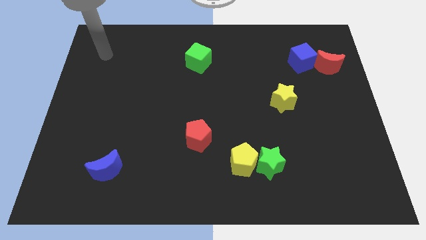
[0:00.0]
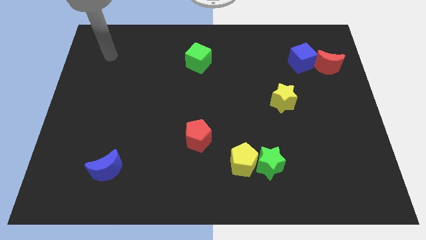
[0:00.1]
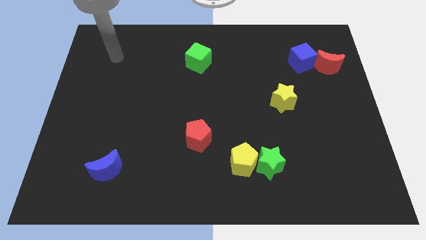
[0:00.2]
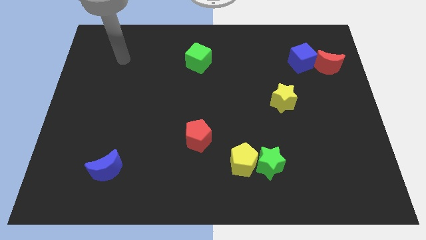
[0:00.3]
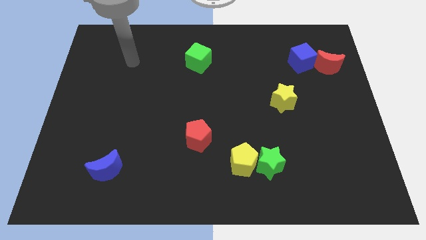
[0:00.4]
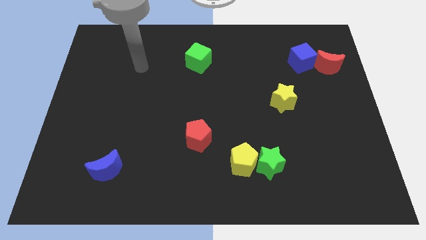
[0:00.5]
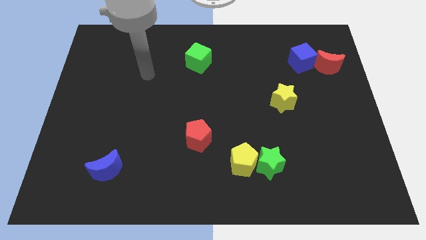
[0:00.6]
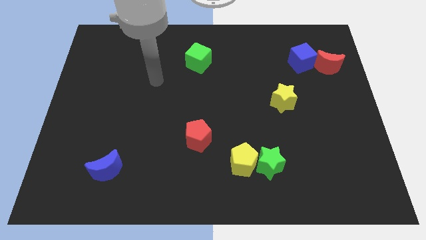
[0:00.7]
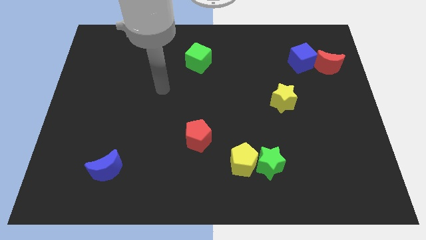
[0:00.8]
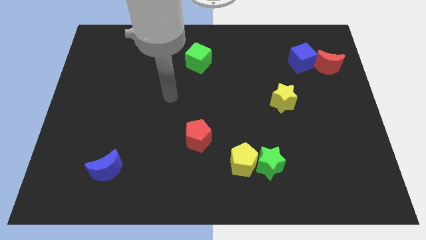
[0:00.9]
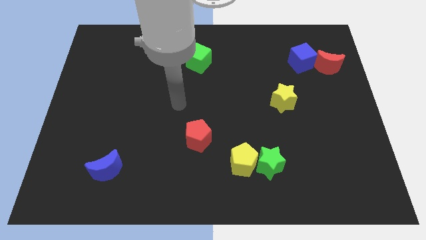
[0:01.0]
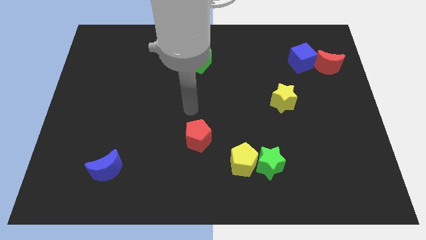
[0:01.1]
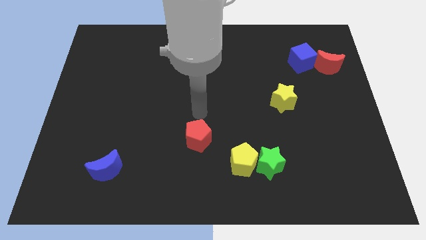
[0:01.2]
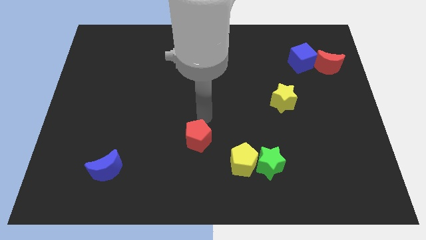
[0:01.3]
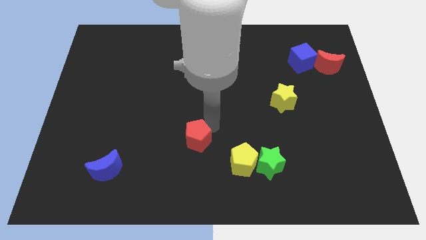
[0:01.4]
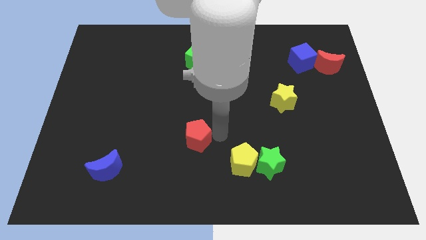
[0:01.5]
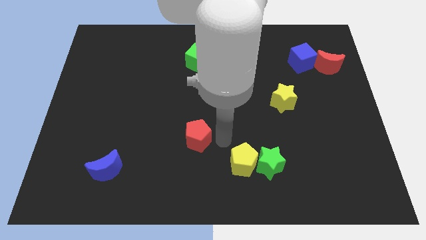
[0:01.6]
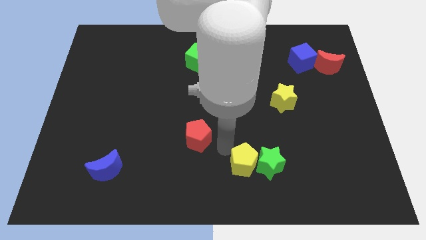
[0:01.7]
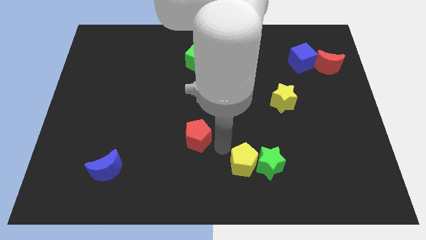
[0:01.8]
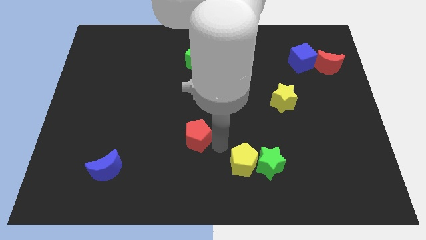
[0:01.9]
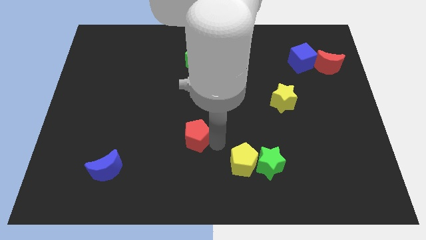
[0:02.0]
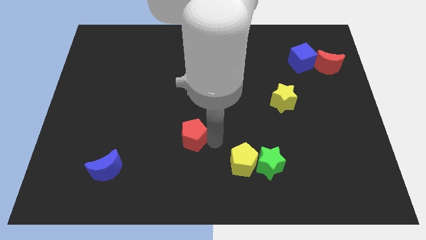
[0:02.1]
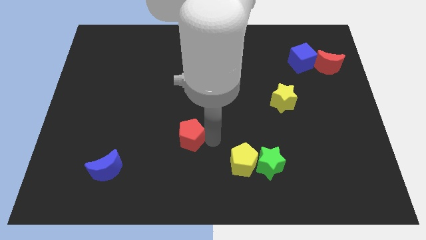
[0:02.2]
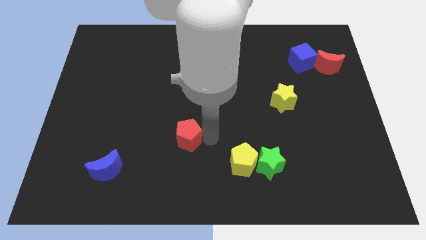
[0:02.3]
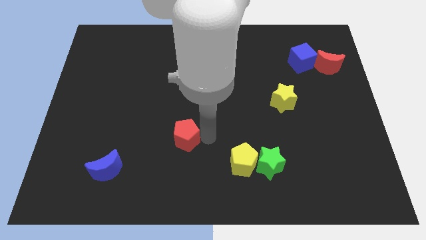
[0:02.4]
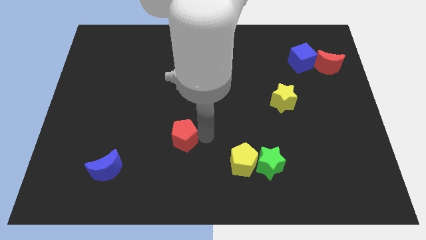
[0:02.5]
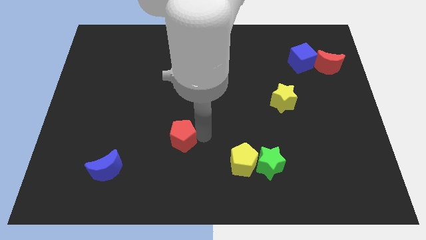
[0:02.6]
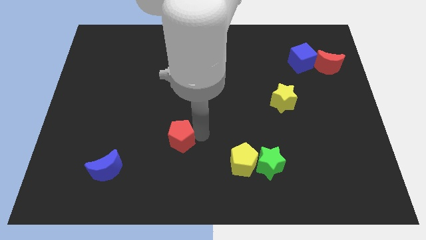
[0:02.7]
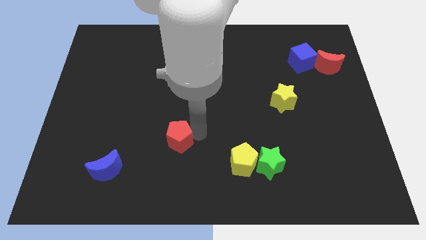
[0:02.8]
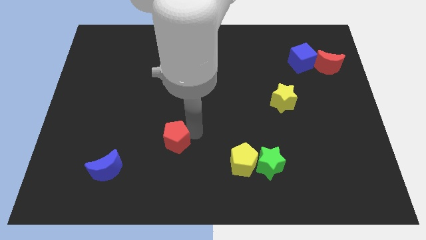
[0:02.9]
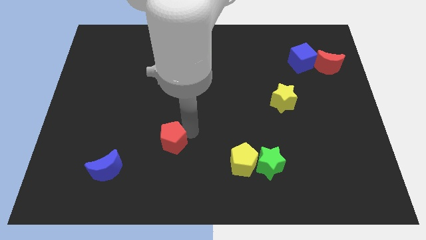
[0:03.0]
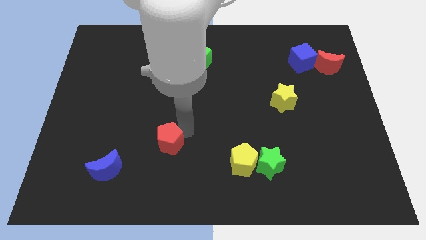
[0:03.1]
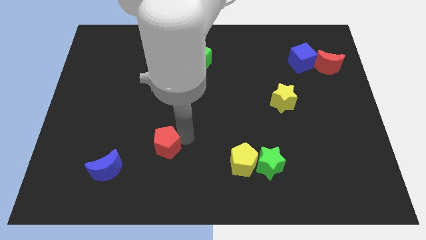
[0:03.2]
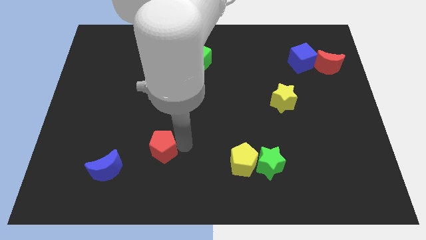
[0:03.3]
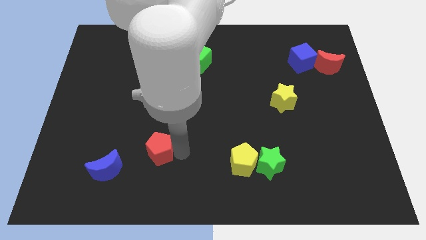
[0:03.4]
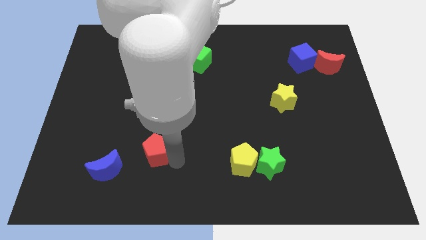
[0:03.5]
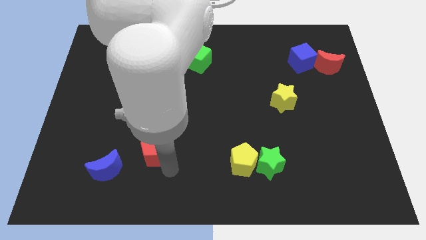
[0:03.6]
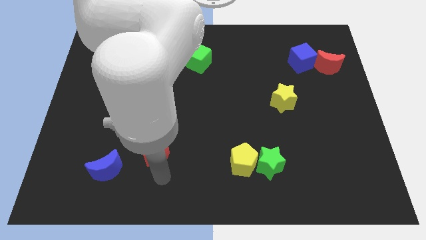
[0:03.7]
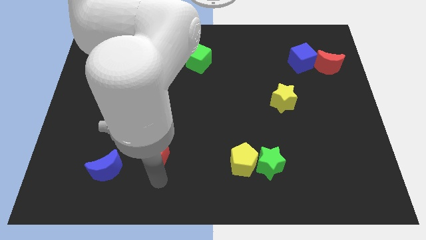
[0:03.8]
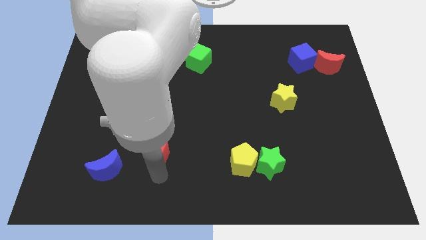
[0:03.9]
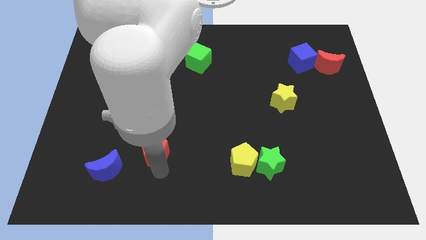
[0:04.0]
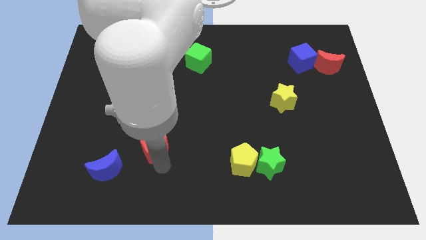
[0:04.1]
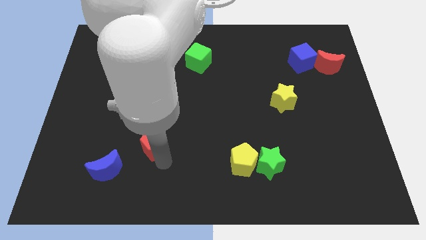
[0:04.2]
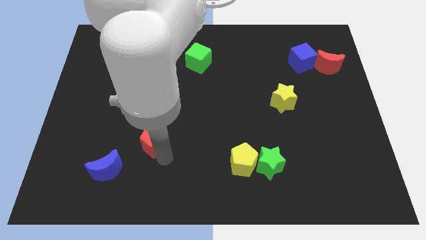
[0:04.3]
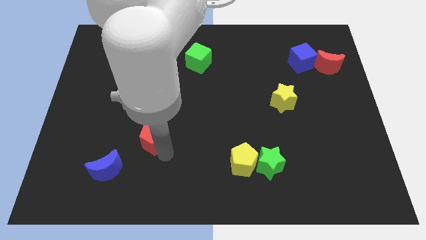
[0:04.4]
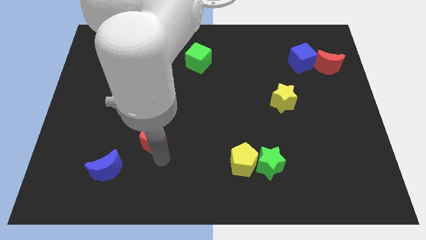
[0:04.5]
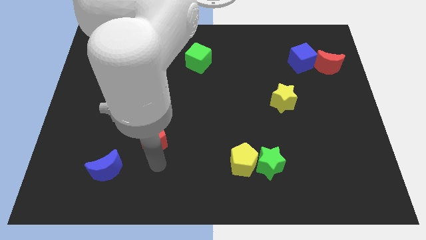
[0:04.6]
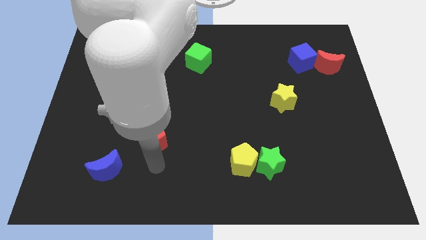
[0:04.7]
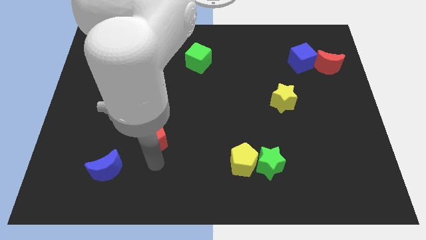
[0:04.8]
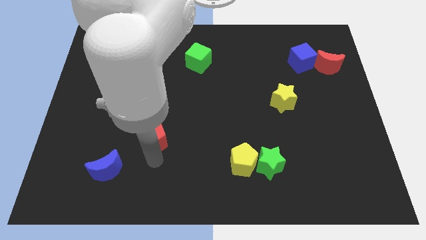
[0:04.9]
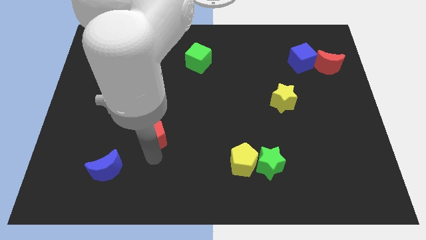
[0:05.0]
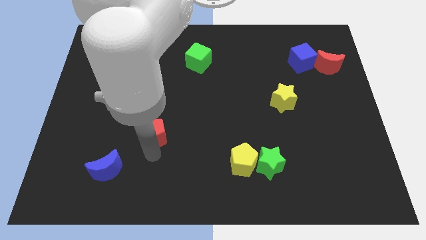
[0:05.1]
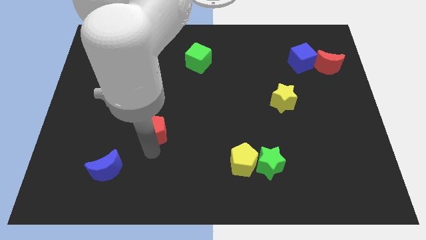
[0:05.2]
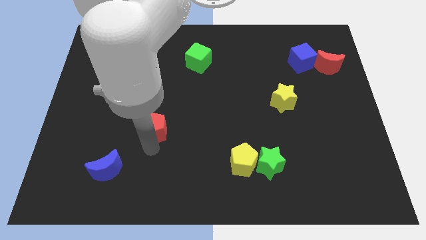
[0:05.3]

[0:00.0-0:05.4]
slightly move the red pentagon diagonally up and left

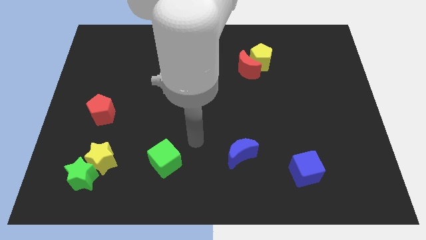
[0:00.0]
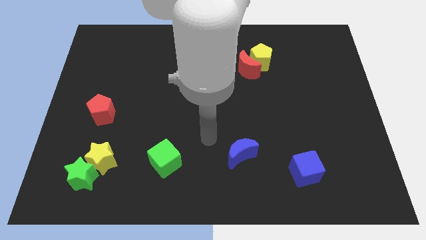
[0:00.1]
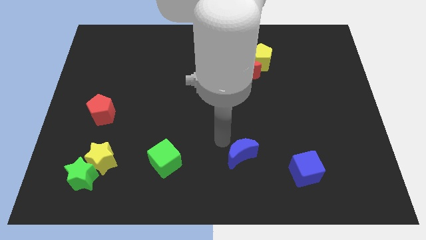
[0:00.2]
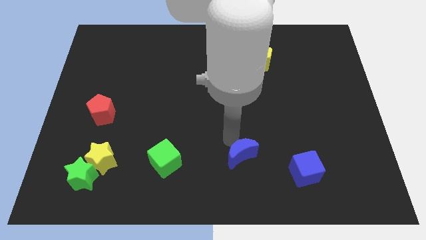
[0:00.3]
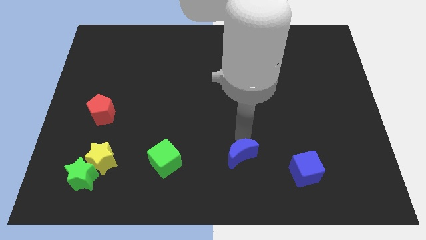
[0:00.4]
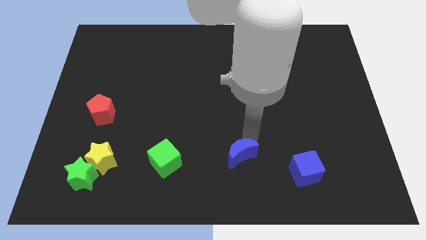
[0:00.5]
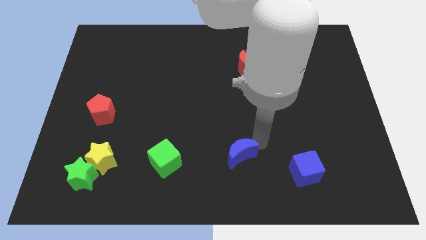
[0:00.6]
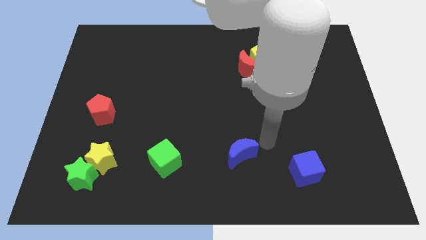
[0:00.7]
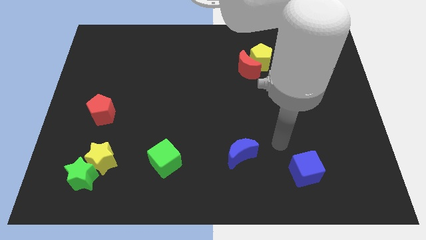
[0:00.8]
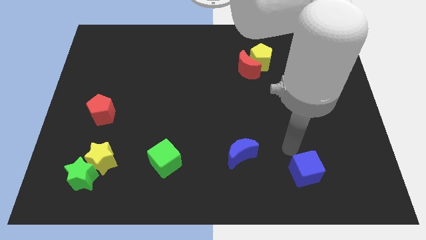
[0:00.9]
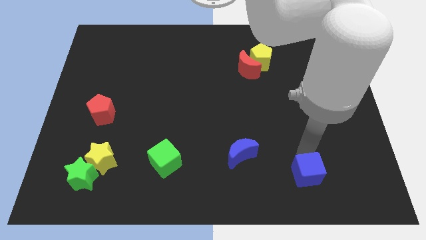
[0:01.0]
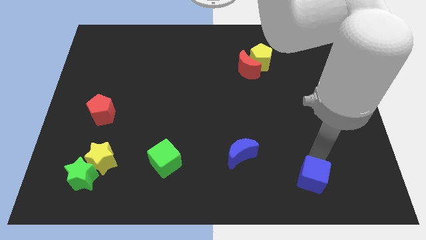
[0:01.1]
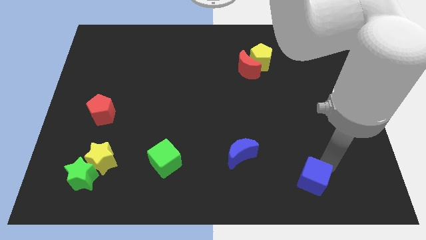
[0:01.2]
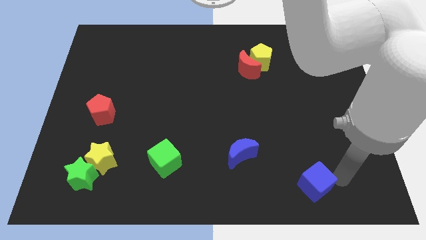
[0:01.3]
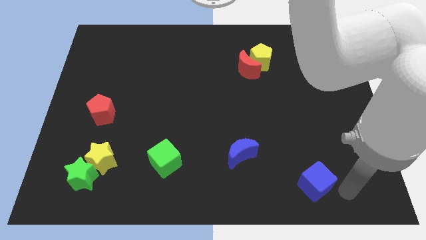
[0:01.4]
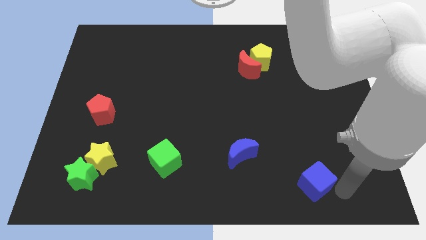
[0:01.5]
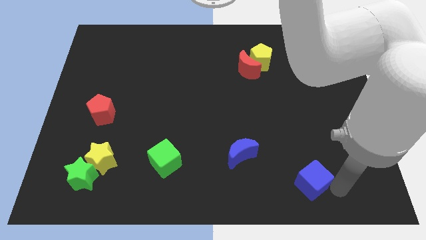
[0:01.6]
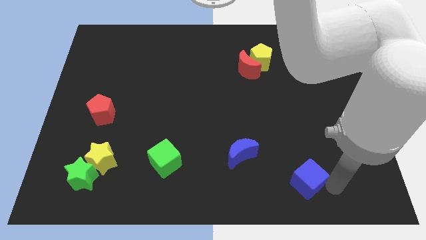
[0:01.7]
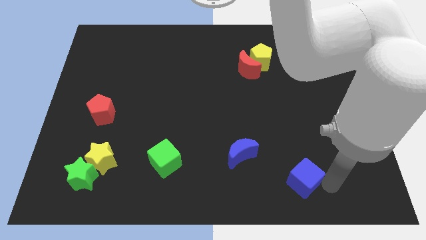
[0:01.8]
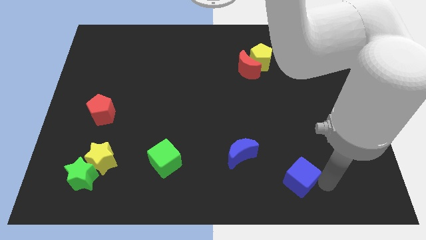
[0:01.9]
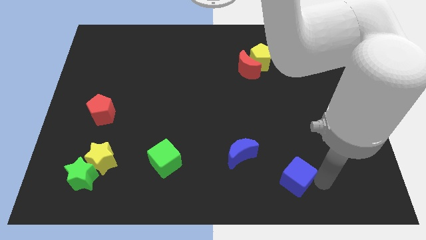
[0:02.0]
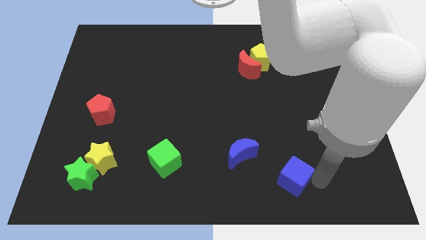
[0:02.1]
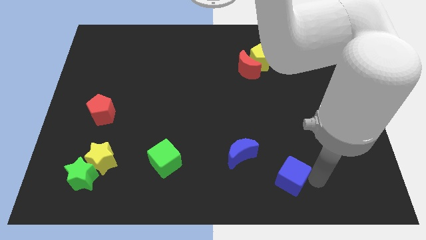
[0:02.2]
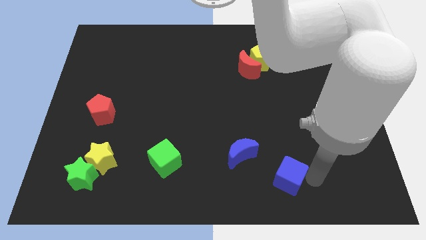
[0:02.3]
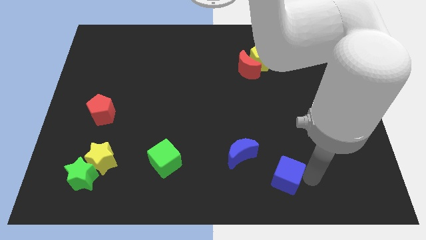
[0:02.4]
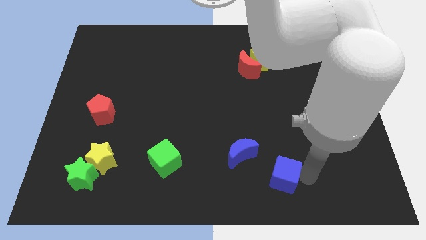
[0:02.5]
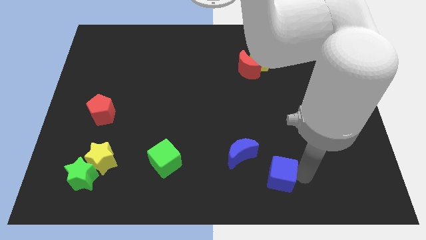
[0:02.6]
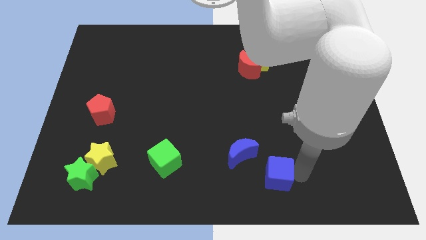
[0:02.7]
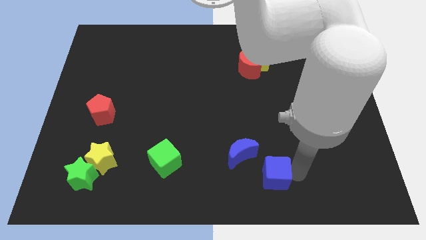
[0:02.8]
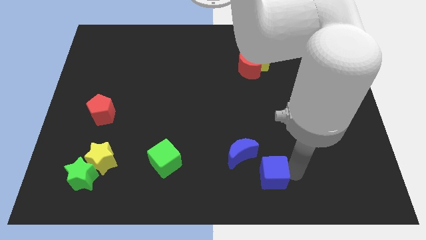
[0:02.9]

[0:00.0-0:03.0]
slide the blue cube left a bit

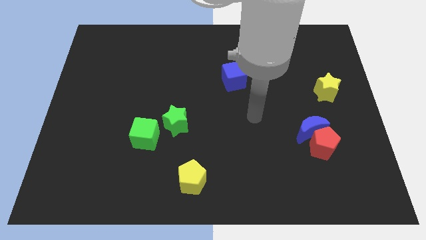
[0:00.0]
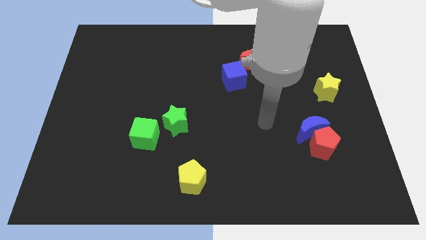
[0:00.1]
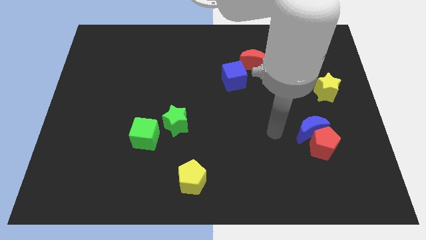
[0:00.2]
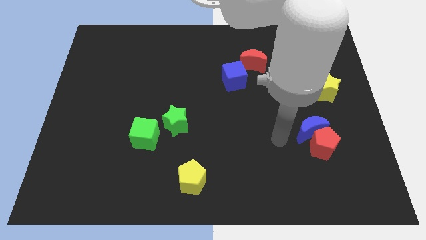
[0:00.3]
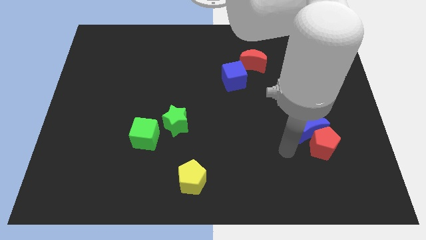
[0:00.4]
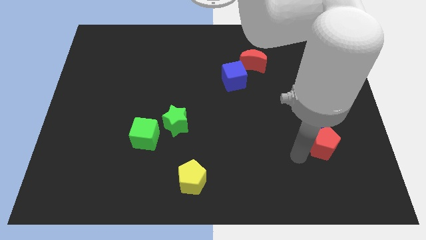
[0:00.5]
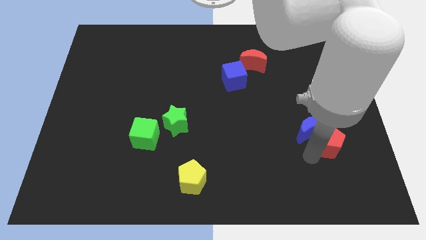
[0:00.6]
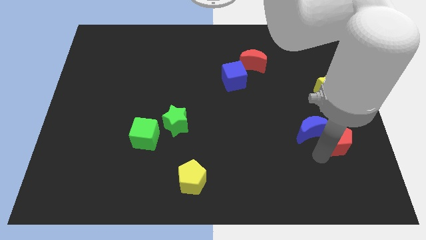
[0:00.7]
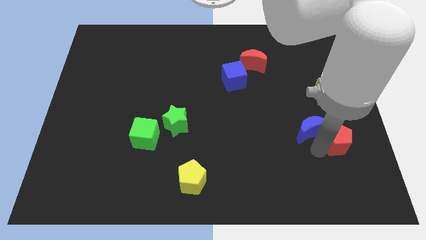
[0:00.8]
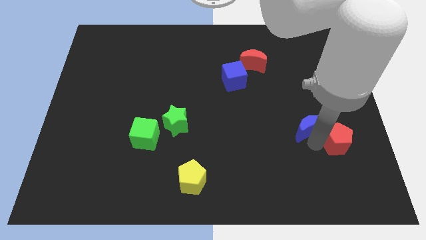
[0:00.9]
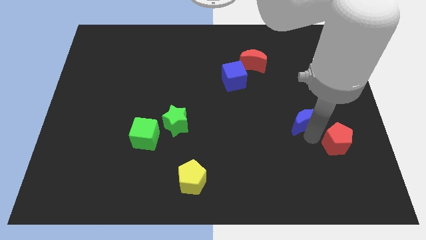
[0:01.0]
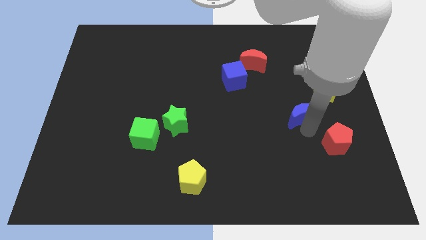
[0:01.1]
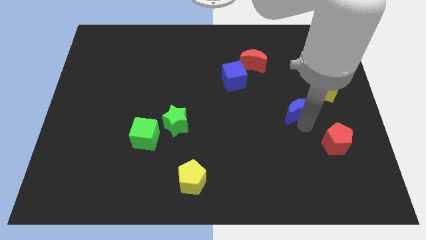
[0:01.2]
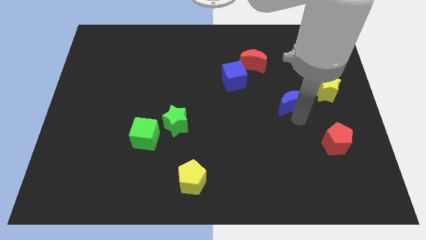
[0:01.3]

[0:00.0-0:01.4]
slightly push the blue moon upwards
